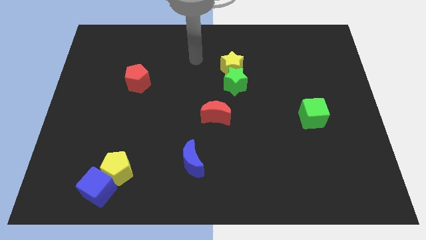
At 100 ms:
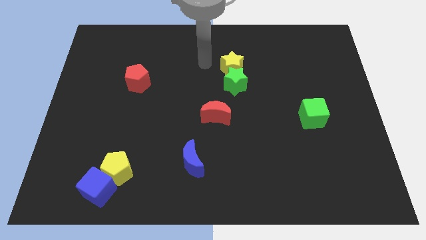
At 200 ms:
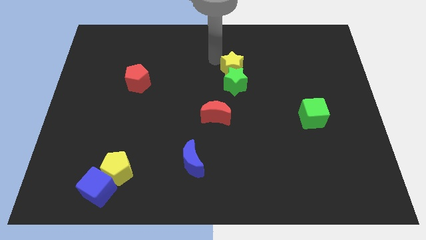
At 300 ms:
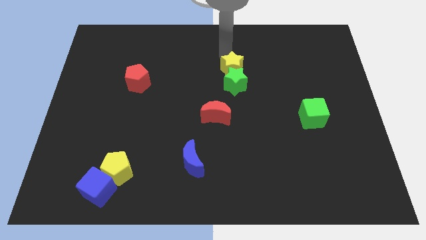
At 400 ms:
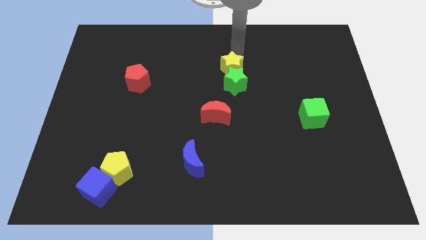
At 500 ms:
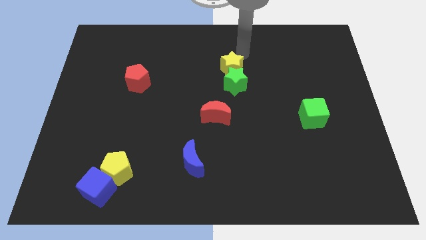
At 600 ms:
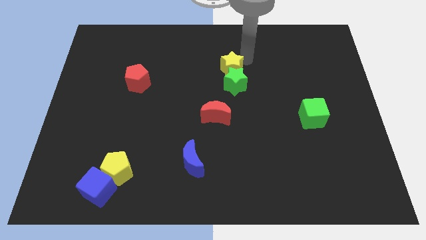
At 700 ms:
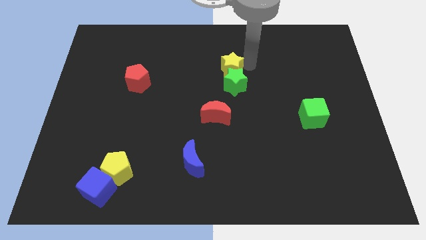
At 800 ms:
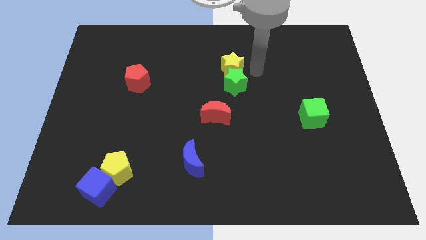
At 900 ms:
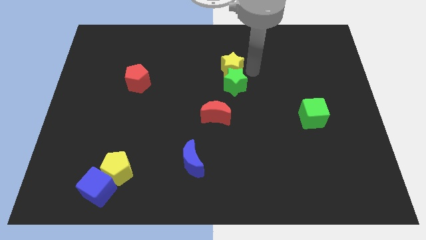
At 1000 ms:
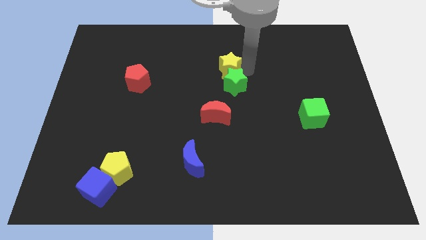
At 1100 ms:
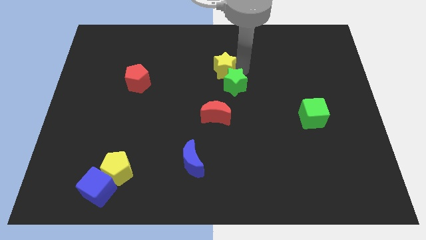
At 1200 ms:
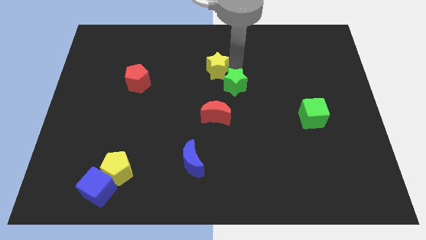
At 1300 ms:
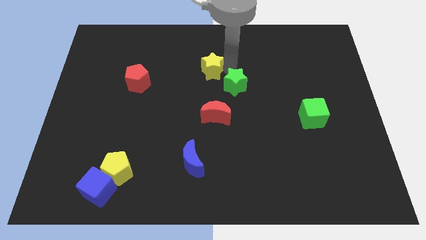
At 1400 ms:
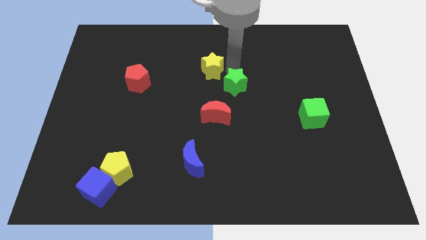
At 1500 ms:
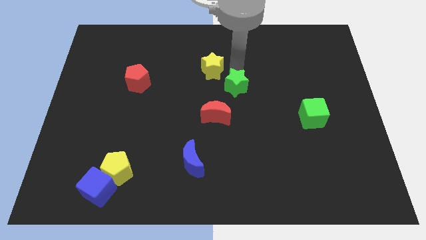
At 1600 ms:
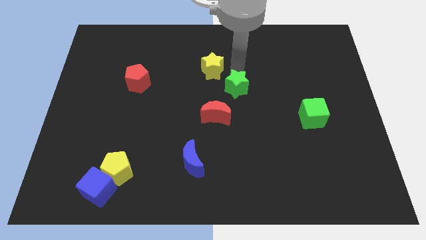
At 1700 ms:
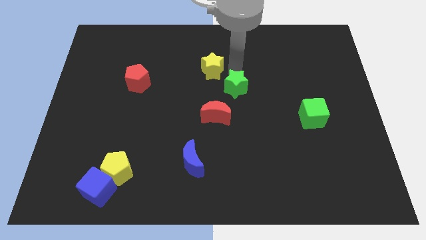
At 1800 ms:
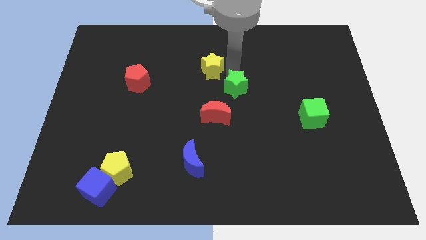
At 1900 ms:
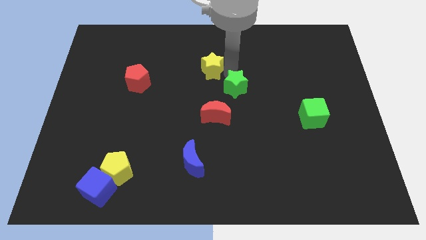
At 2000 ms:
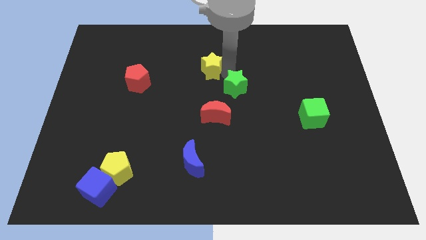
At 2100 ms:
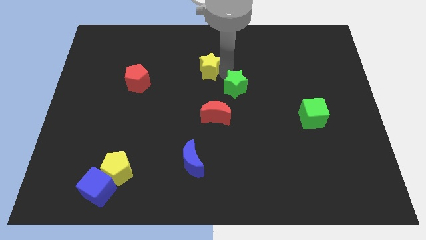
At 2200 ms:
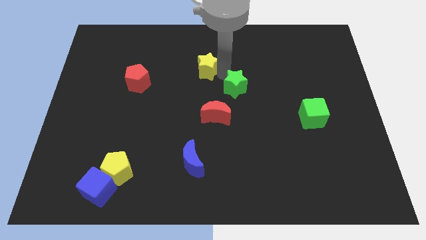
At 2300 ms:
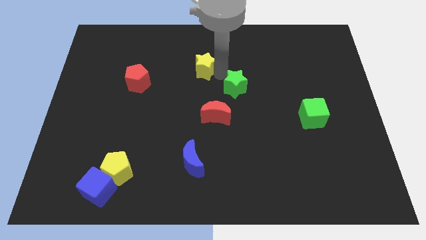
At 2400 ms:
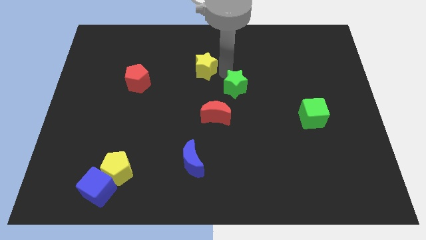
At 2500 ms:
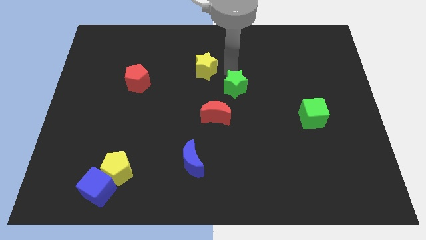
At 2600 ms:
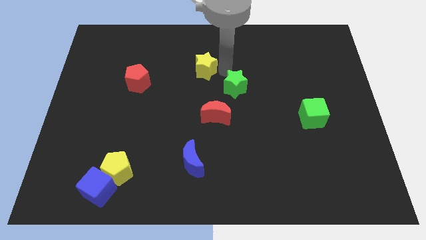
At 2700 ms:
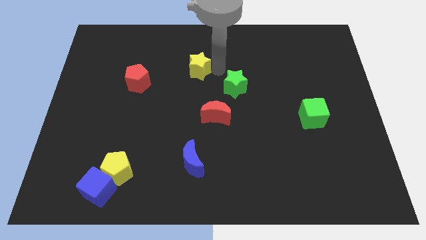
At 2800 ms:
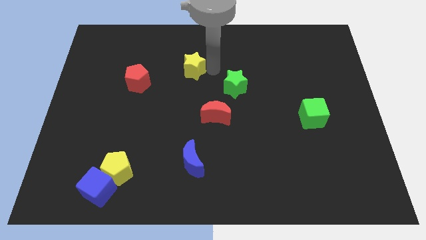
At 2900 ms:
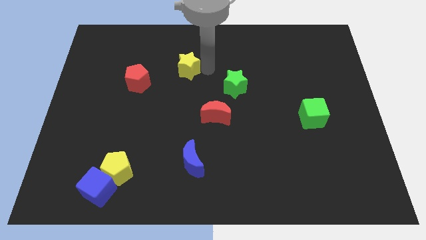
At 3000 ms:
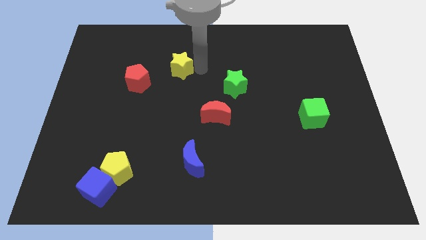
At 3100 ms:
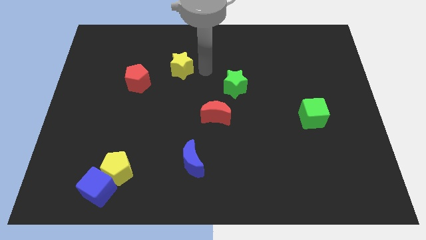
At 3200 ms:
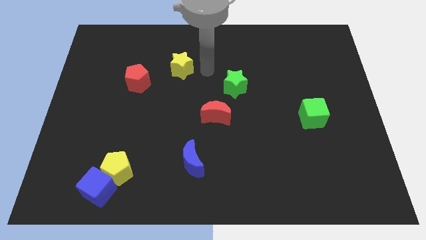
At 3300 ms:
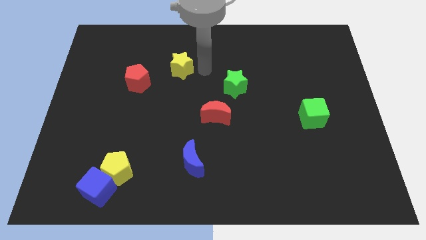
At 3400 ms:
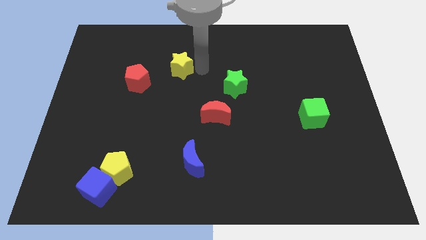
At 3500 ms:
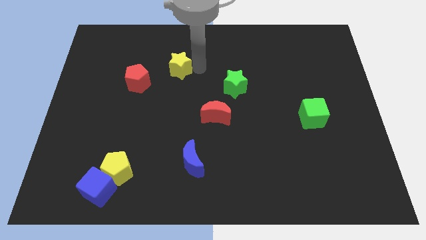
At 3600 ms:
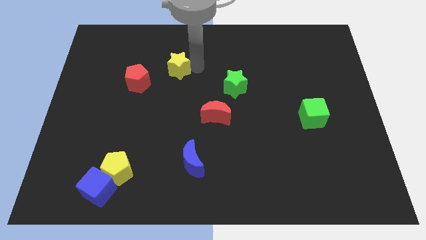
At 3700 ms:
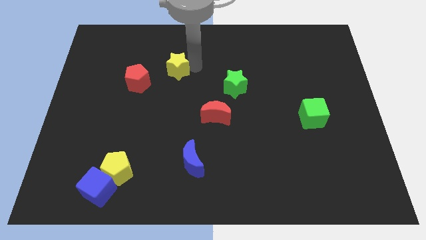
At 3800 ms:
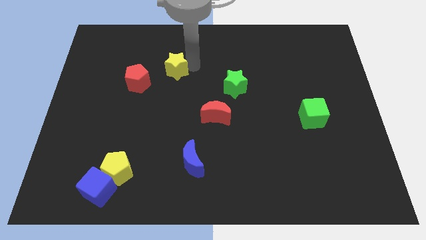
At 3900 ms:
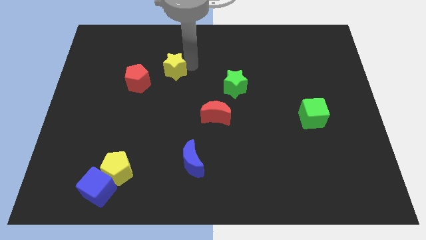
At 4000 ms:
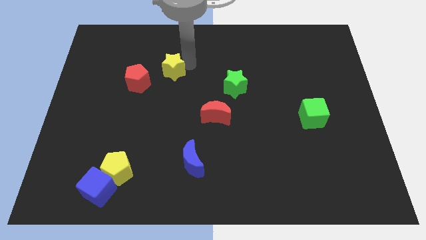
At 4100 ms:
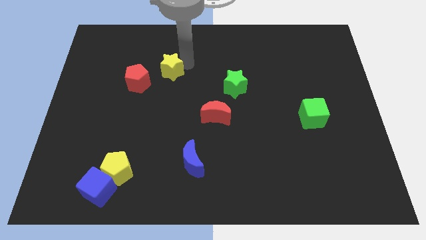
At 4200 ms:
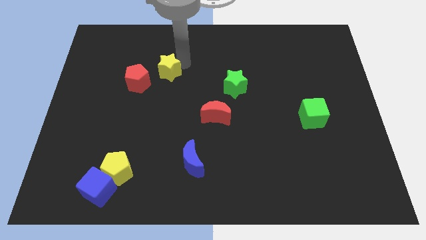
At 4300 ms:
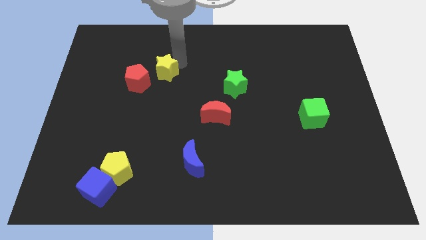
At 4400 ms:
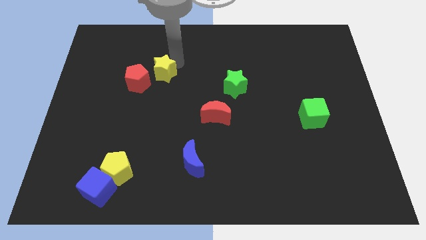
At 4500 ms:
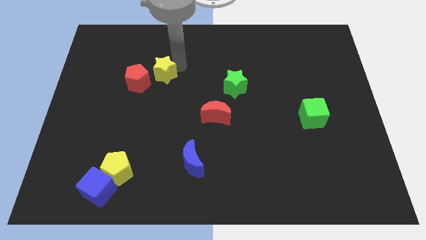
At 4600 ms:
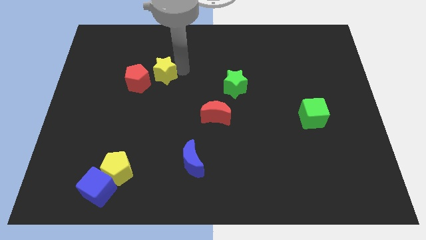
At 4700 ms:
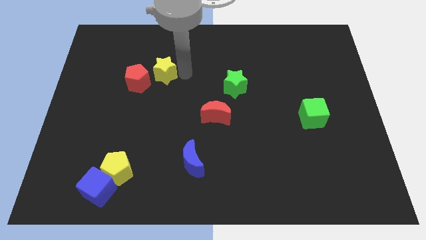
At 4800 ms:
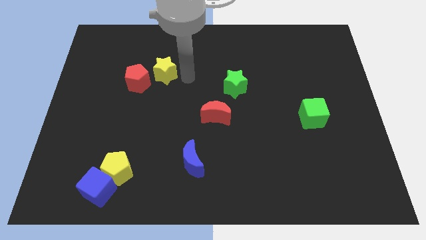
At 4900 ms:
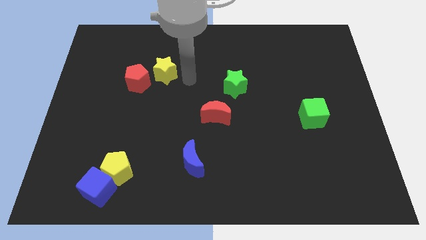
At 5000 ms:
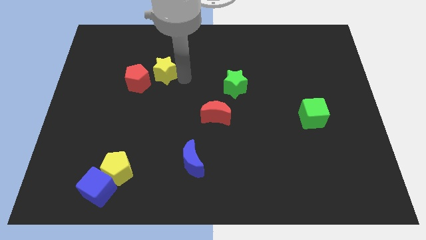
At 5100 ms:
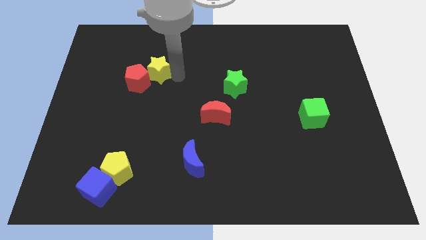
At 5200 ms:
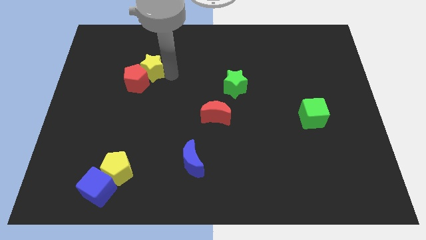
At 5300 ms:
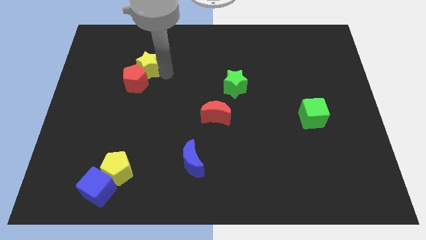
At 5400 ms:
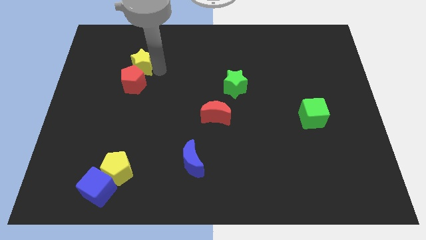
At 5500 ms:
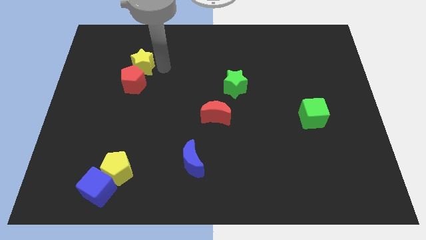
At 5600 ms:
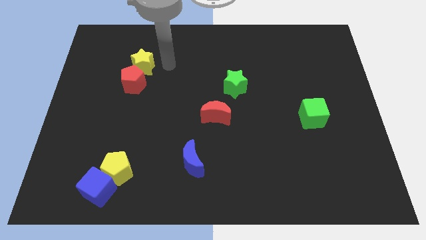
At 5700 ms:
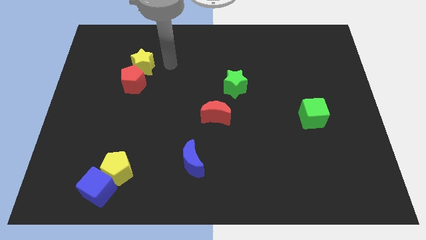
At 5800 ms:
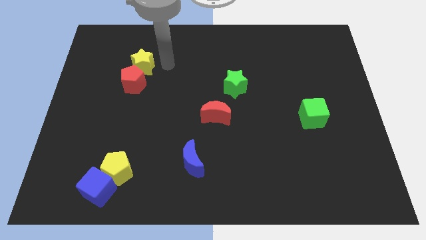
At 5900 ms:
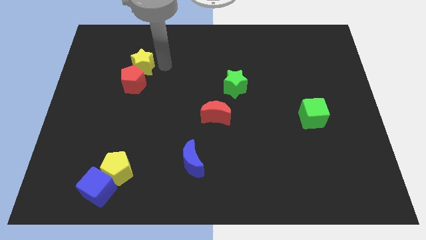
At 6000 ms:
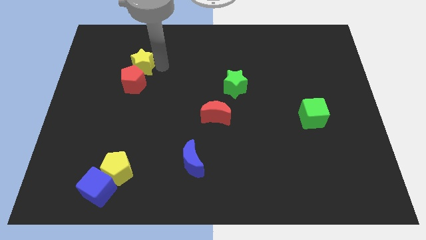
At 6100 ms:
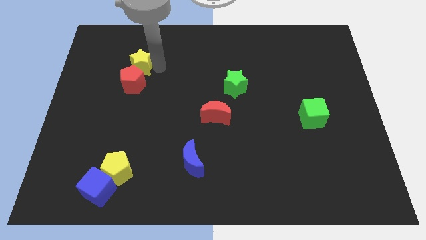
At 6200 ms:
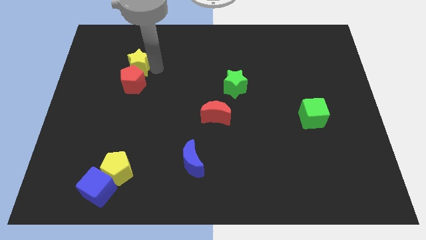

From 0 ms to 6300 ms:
slide the yellow star to the top left of the red pentagon
